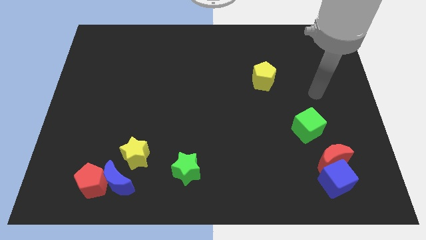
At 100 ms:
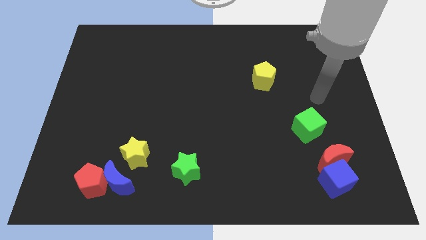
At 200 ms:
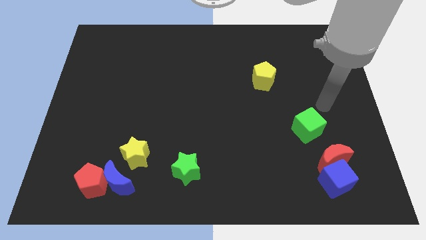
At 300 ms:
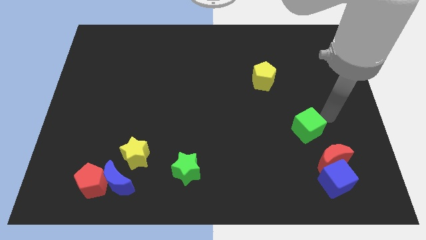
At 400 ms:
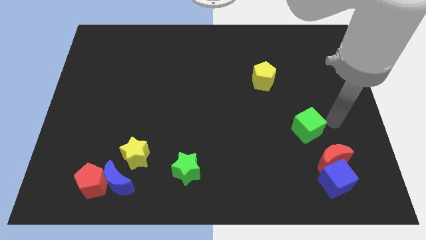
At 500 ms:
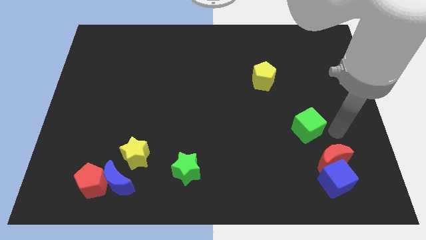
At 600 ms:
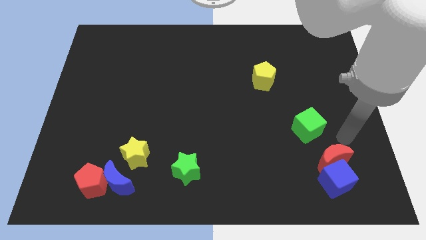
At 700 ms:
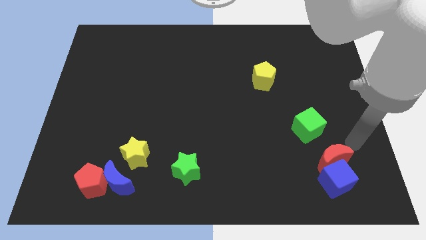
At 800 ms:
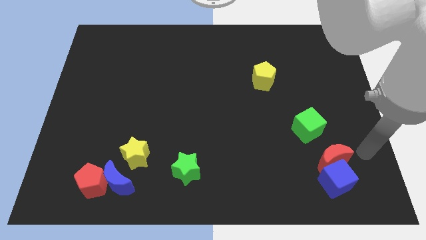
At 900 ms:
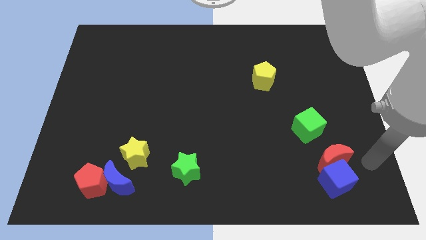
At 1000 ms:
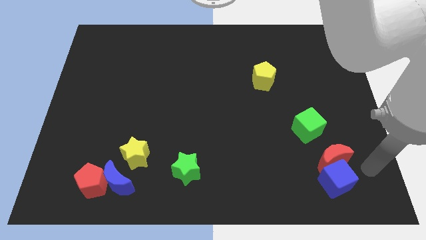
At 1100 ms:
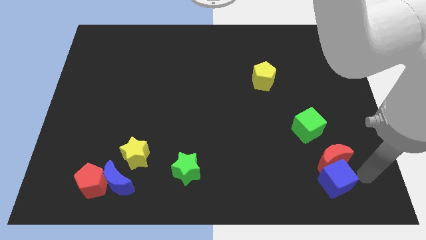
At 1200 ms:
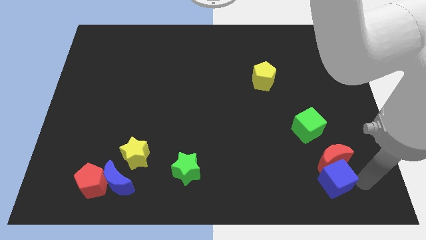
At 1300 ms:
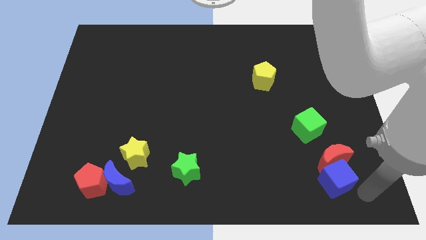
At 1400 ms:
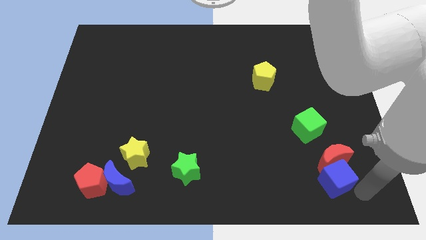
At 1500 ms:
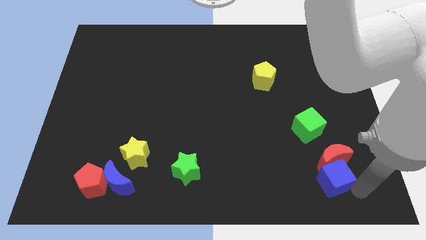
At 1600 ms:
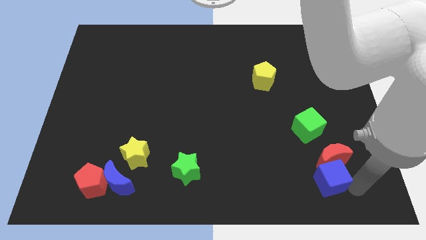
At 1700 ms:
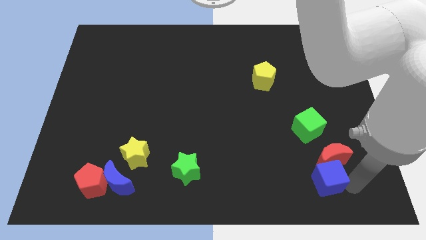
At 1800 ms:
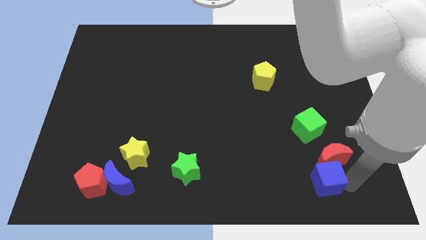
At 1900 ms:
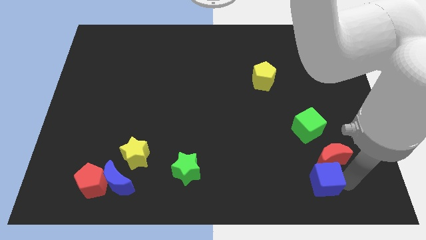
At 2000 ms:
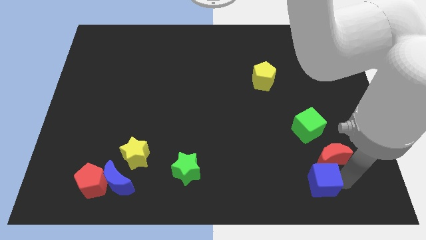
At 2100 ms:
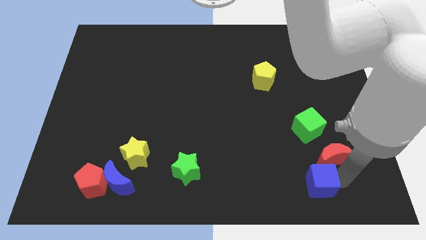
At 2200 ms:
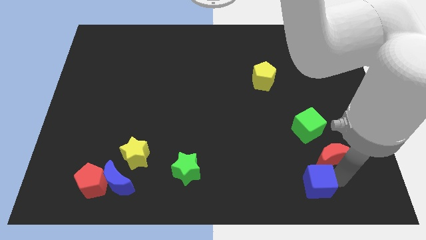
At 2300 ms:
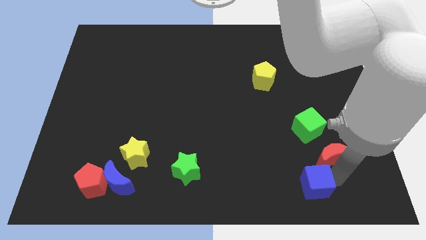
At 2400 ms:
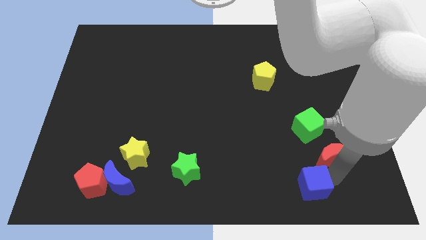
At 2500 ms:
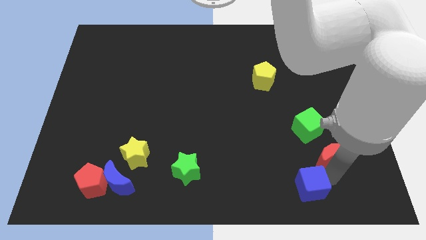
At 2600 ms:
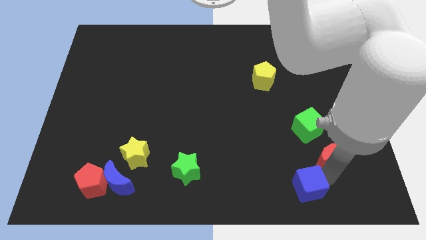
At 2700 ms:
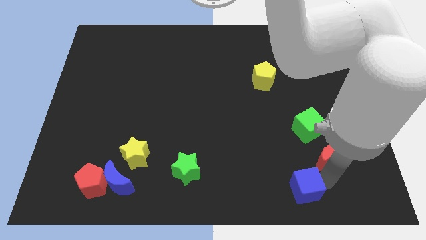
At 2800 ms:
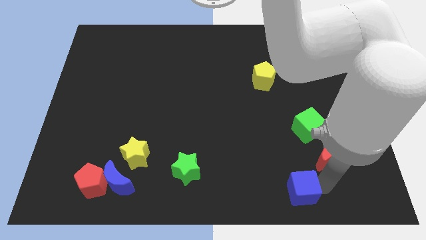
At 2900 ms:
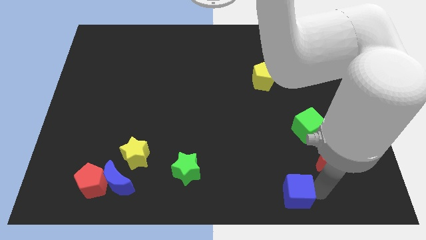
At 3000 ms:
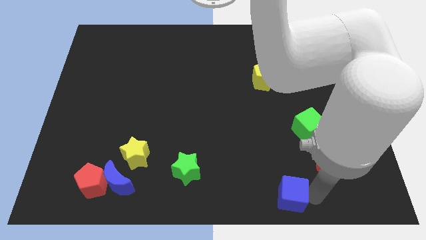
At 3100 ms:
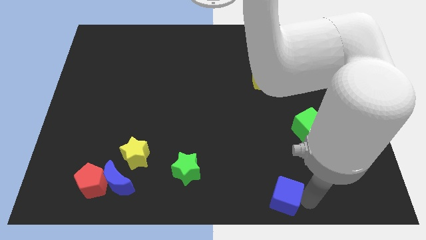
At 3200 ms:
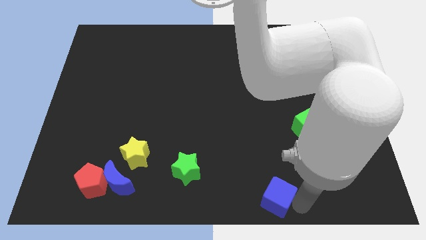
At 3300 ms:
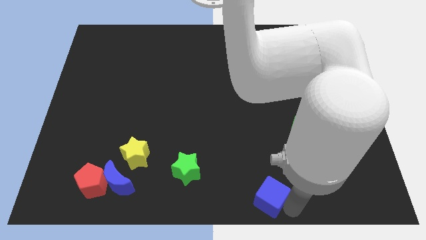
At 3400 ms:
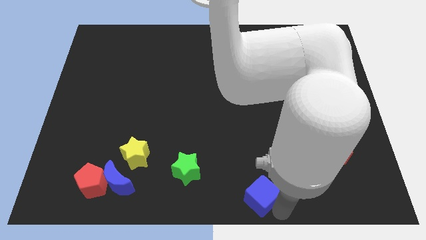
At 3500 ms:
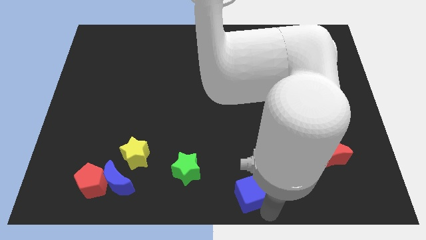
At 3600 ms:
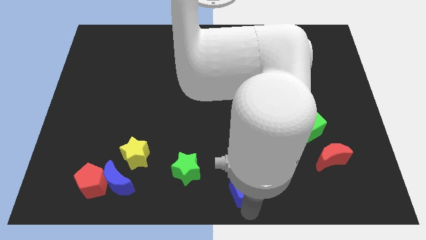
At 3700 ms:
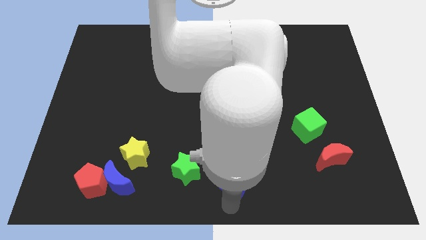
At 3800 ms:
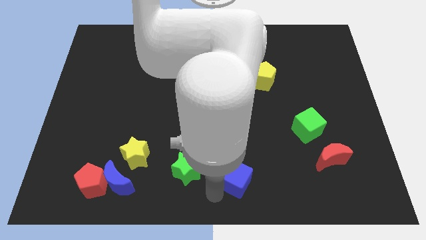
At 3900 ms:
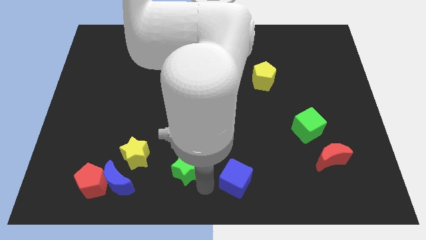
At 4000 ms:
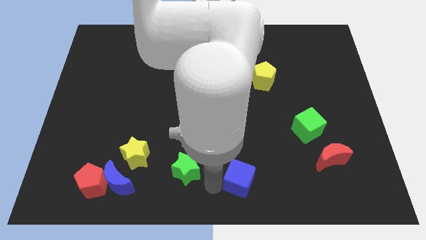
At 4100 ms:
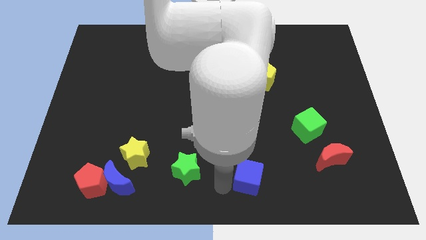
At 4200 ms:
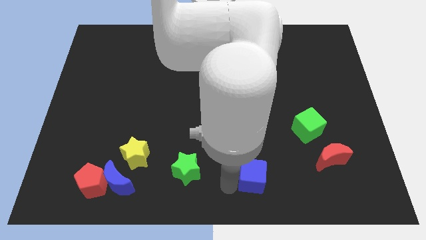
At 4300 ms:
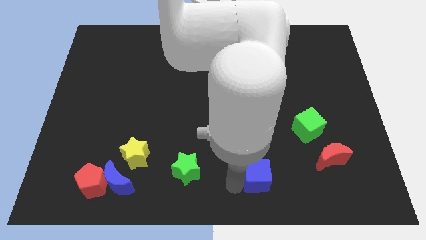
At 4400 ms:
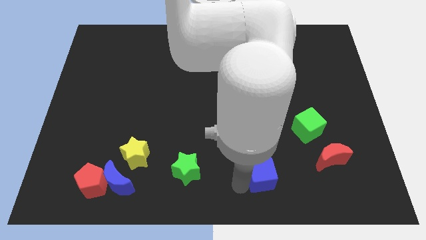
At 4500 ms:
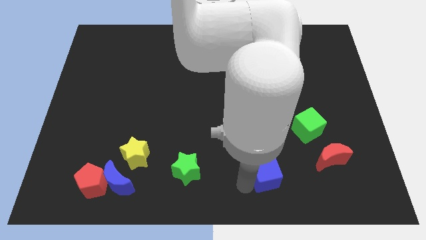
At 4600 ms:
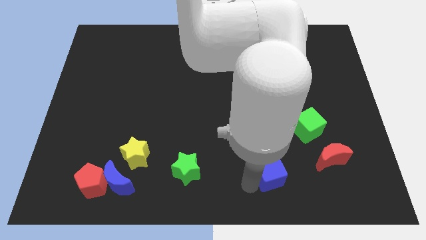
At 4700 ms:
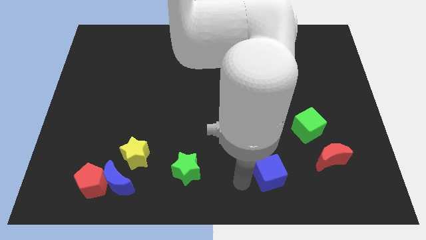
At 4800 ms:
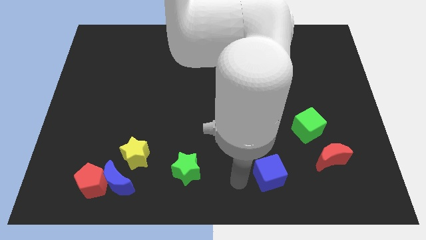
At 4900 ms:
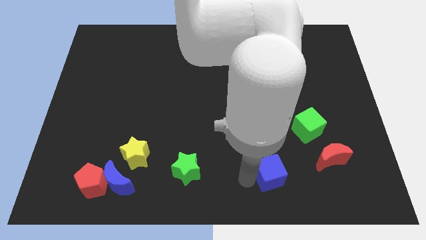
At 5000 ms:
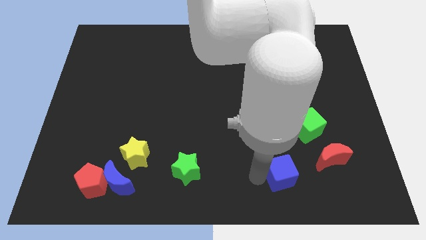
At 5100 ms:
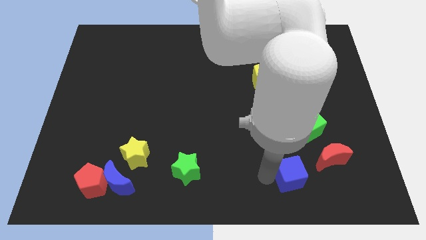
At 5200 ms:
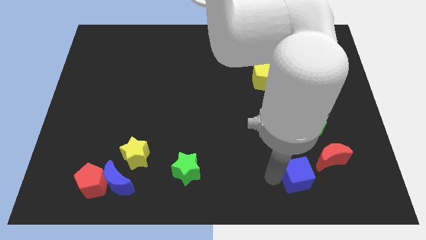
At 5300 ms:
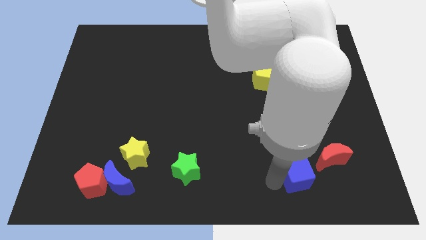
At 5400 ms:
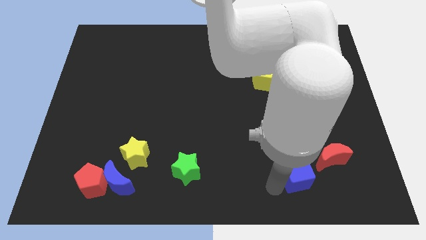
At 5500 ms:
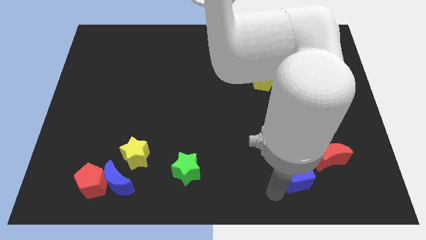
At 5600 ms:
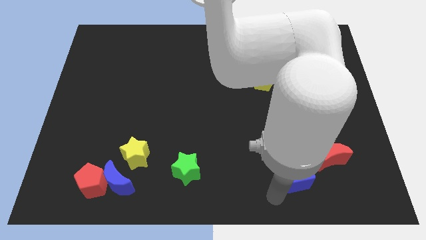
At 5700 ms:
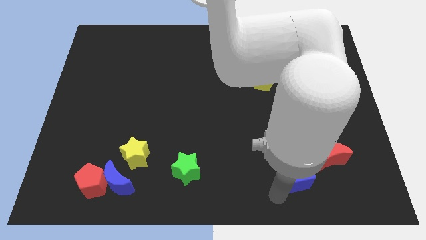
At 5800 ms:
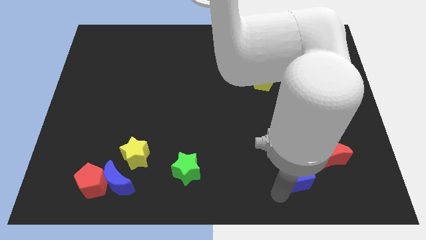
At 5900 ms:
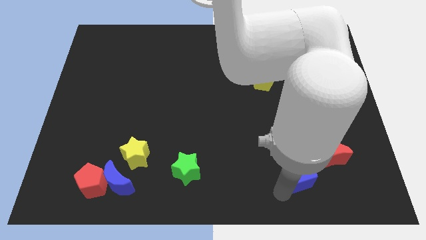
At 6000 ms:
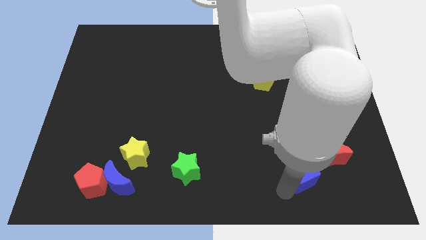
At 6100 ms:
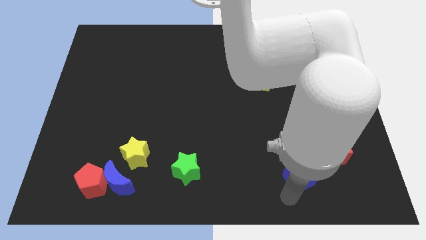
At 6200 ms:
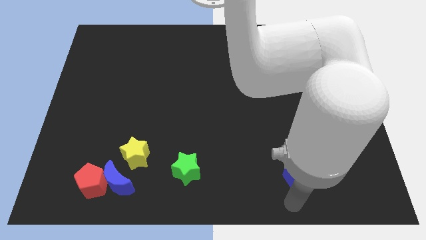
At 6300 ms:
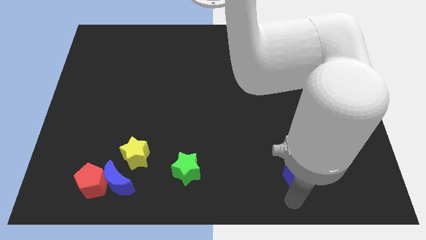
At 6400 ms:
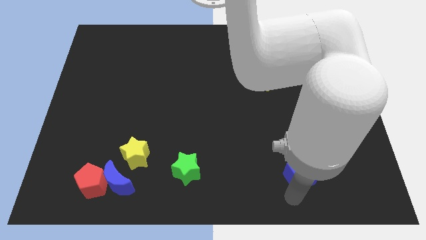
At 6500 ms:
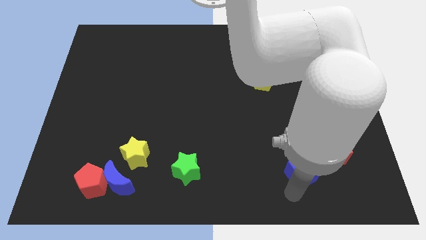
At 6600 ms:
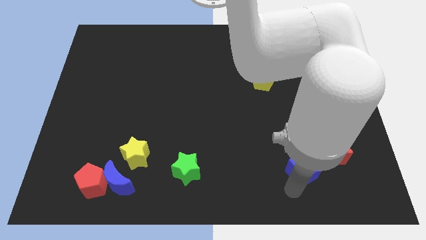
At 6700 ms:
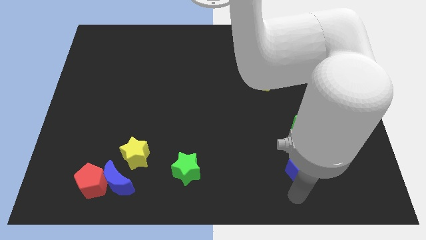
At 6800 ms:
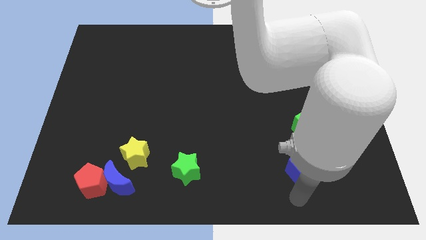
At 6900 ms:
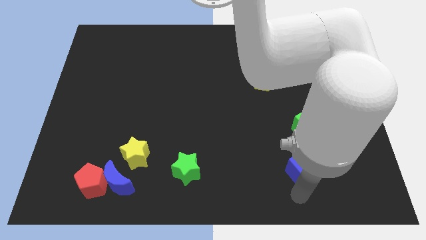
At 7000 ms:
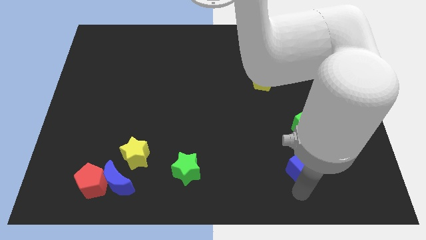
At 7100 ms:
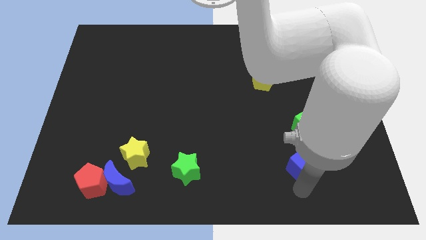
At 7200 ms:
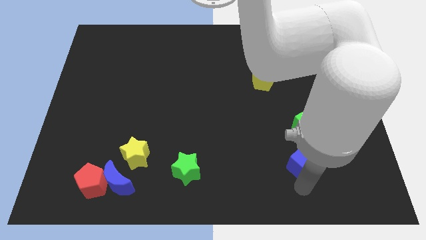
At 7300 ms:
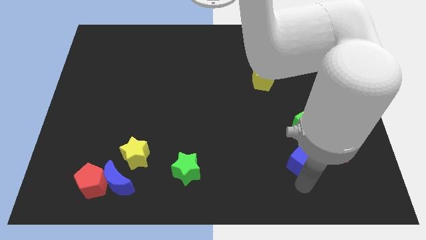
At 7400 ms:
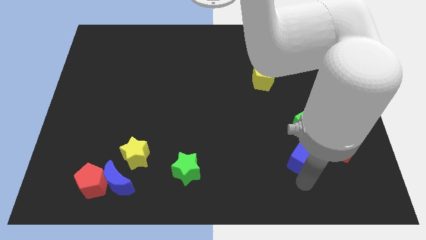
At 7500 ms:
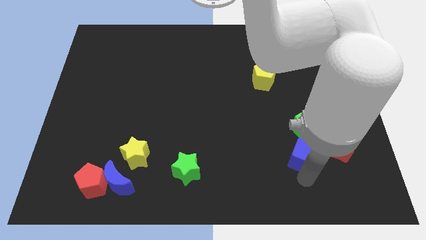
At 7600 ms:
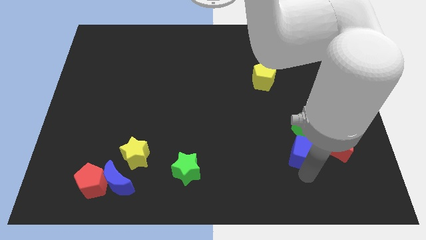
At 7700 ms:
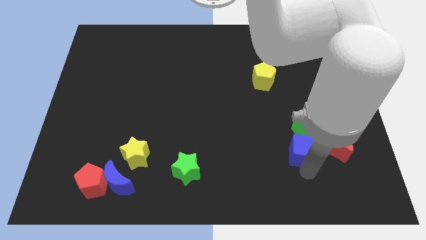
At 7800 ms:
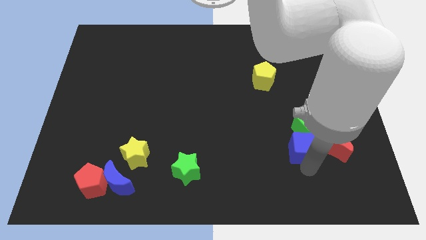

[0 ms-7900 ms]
move the blue cube towards the green cube

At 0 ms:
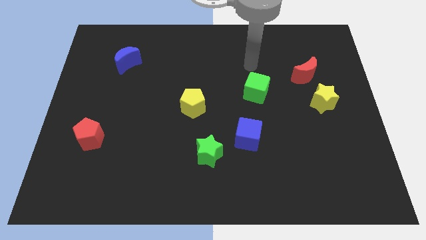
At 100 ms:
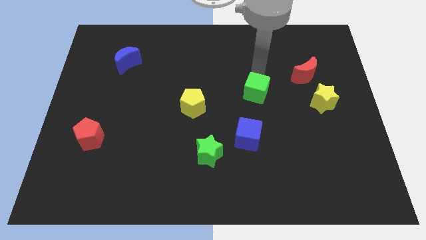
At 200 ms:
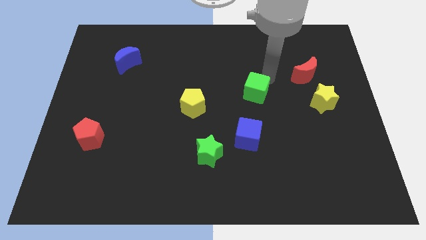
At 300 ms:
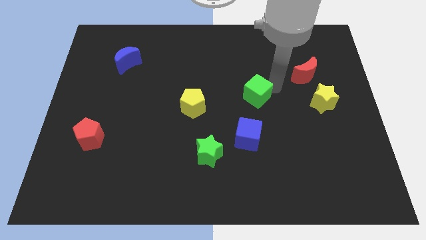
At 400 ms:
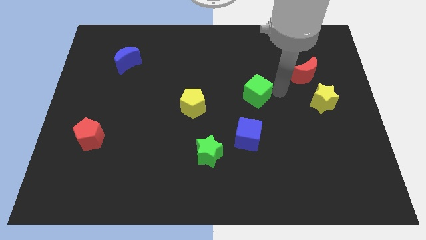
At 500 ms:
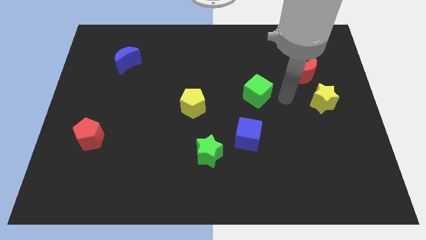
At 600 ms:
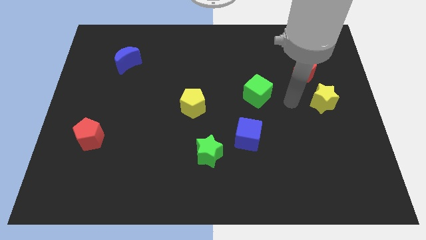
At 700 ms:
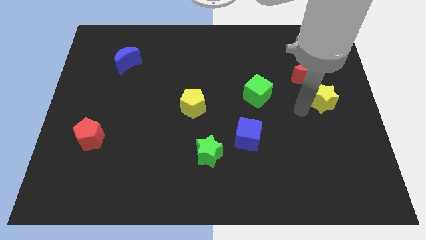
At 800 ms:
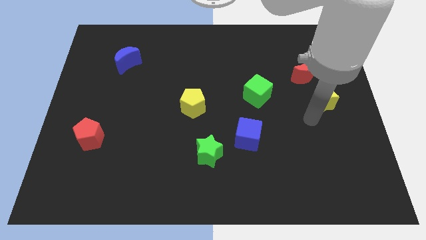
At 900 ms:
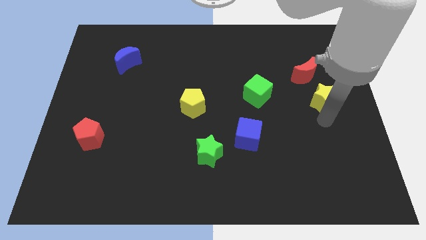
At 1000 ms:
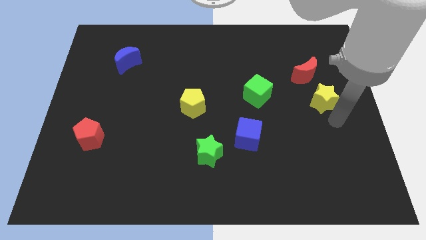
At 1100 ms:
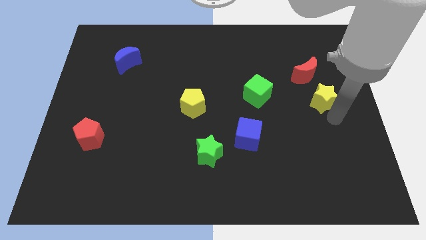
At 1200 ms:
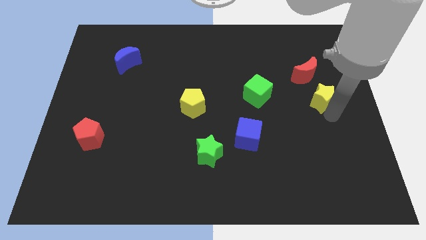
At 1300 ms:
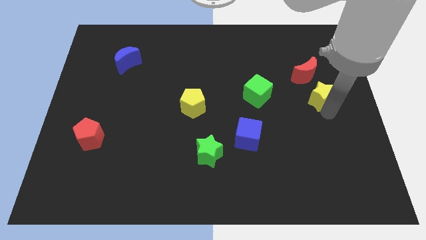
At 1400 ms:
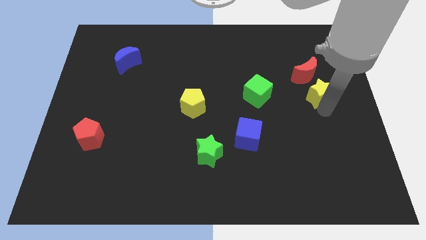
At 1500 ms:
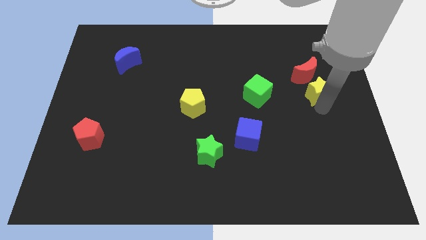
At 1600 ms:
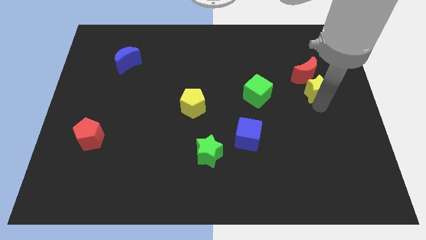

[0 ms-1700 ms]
push the yellow star close to the red moon
